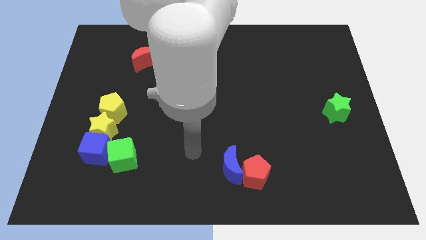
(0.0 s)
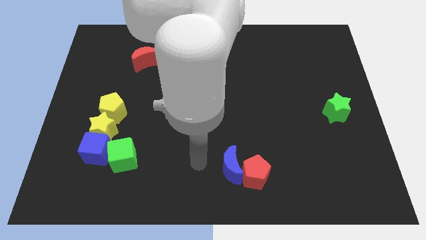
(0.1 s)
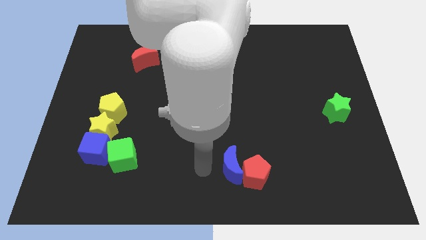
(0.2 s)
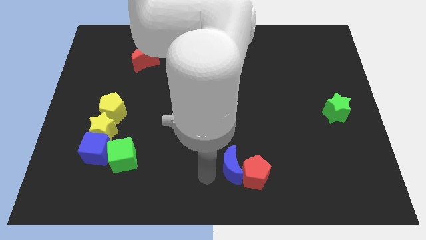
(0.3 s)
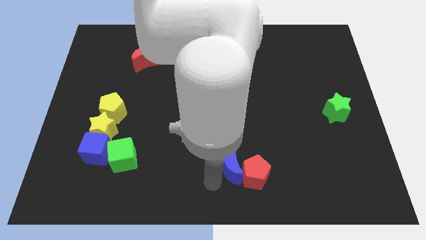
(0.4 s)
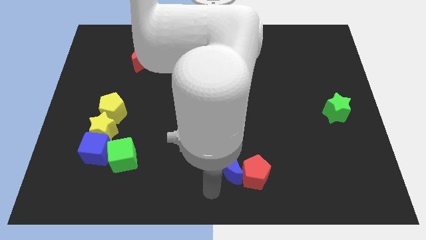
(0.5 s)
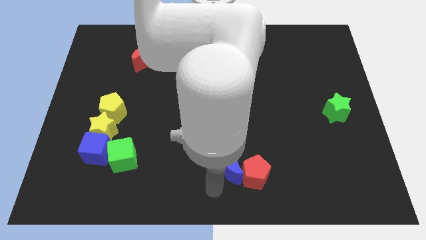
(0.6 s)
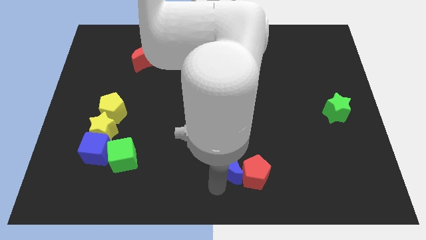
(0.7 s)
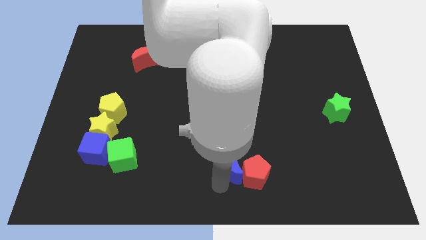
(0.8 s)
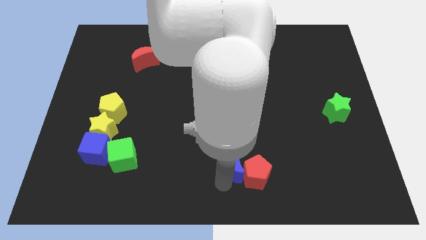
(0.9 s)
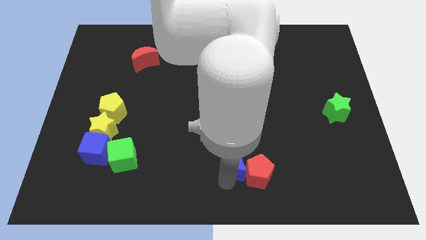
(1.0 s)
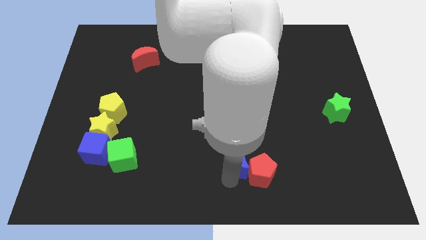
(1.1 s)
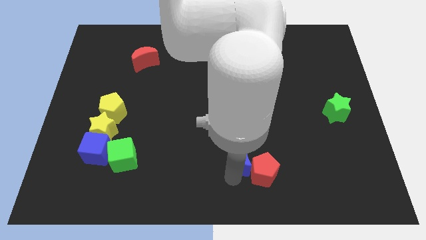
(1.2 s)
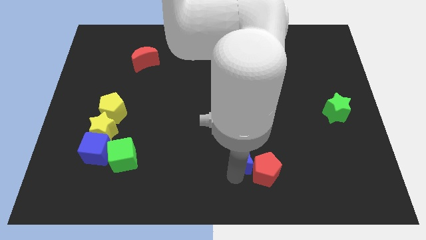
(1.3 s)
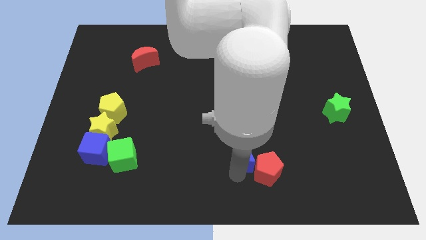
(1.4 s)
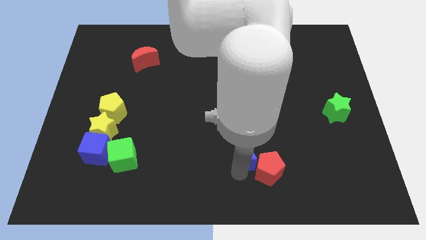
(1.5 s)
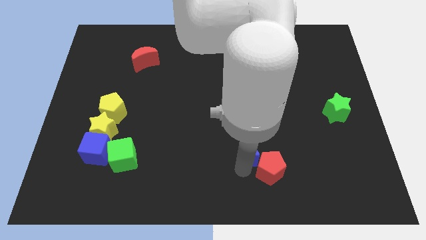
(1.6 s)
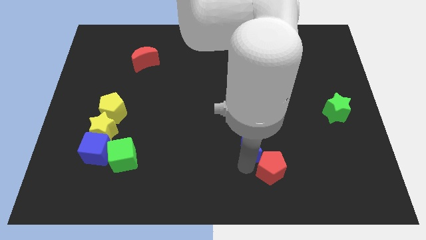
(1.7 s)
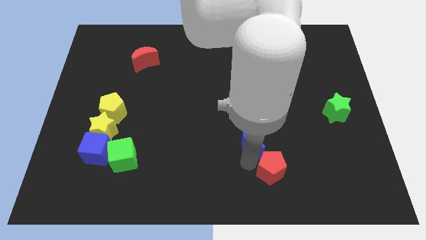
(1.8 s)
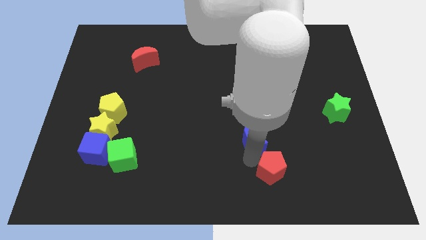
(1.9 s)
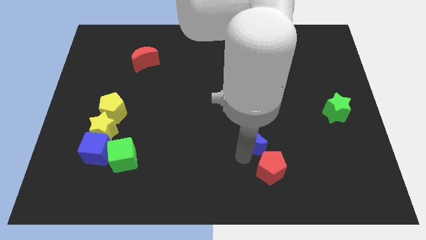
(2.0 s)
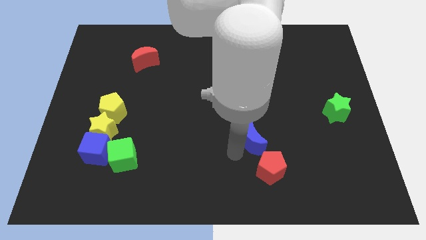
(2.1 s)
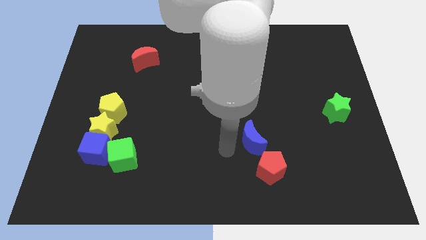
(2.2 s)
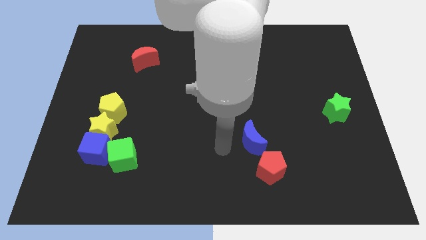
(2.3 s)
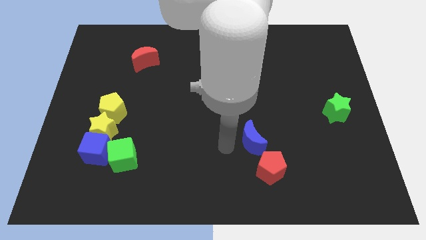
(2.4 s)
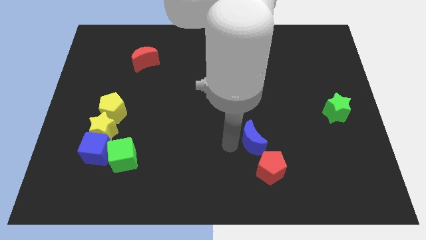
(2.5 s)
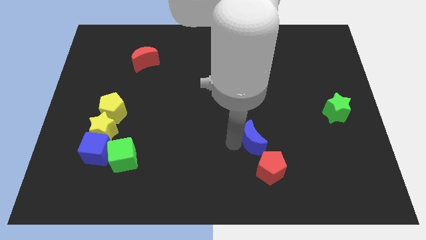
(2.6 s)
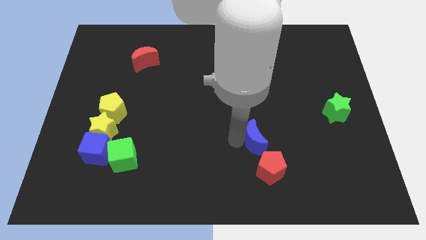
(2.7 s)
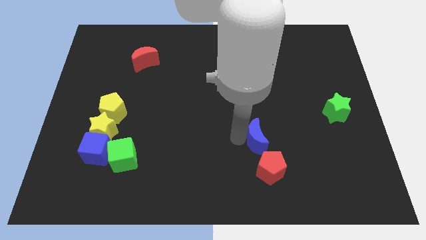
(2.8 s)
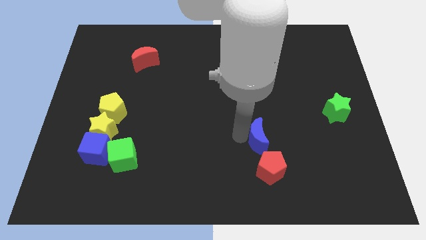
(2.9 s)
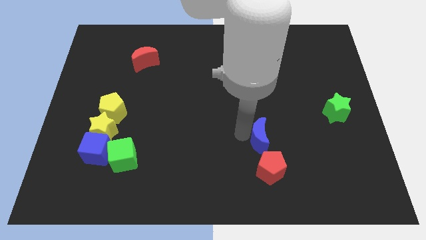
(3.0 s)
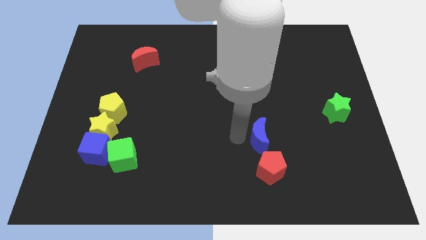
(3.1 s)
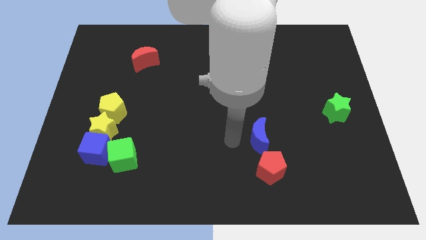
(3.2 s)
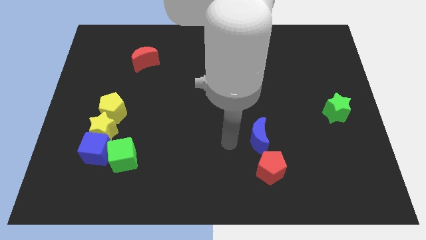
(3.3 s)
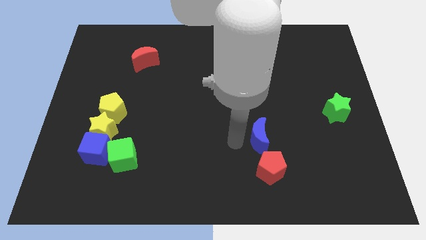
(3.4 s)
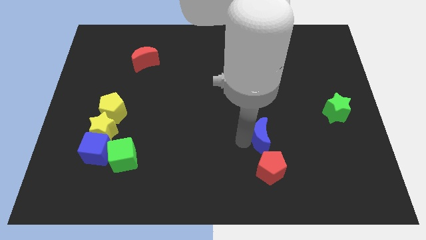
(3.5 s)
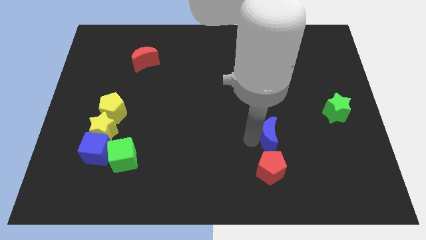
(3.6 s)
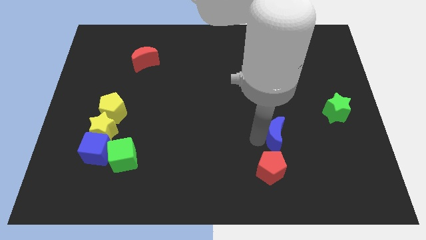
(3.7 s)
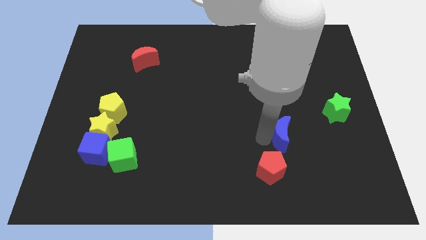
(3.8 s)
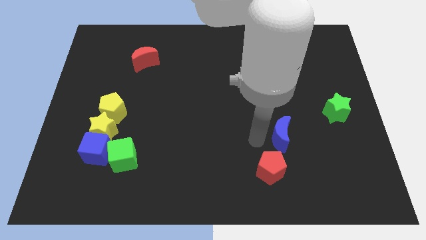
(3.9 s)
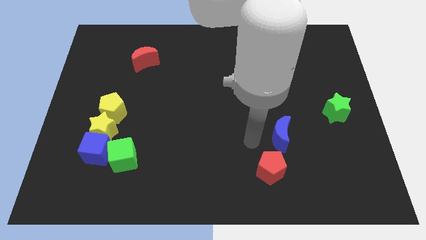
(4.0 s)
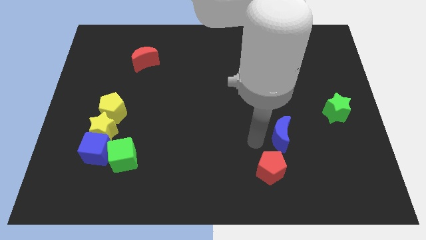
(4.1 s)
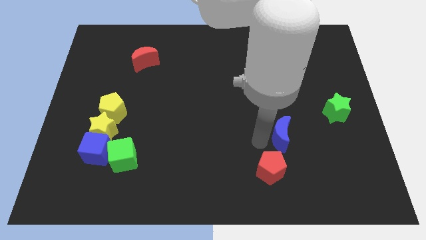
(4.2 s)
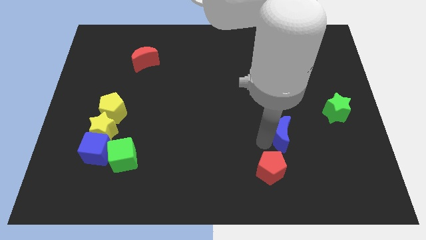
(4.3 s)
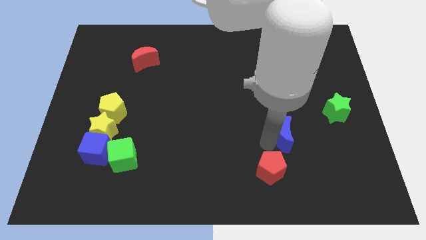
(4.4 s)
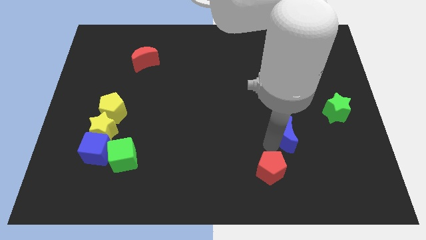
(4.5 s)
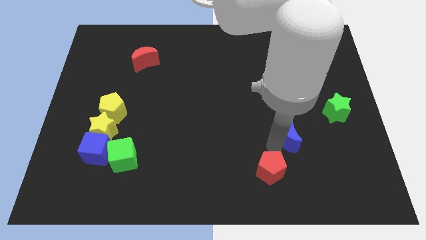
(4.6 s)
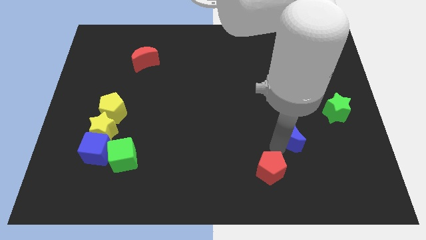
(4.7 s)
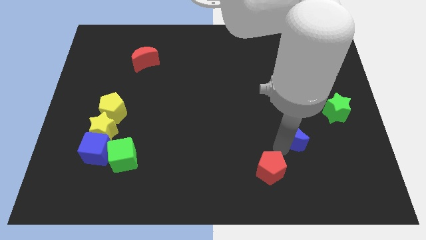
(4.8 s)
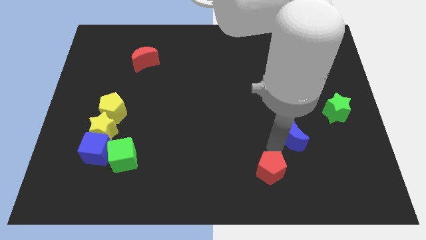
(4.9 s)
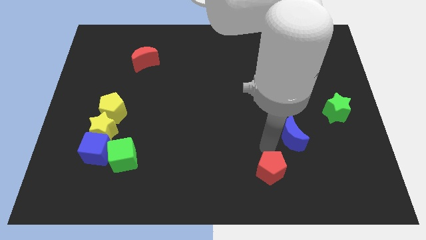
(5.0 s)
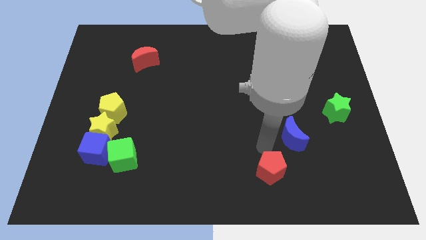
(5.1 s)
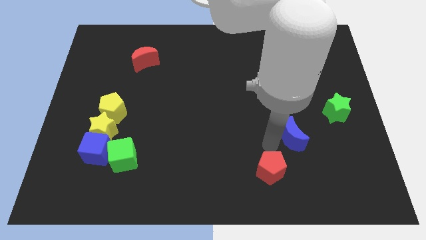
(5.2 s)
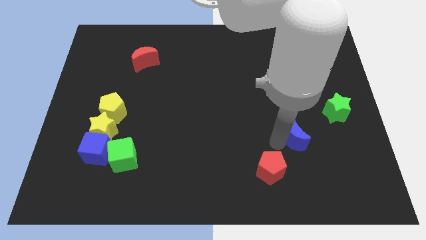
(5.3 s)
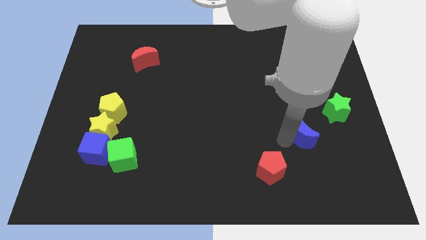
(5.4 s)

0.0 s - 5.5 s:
slide the blue moon to the bottom left side of the green star
